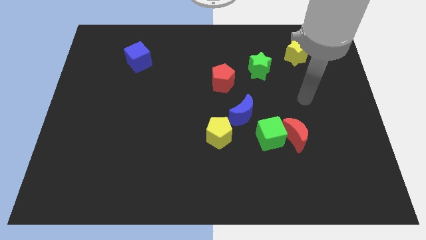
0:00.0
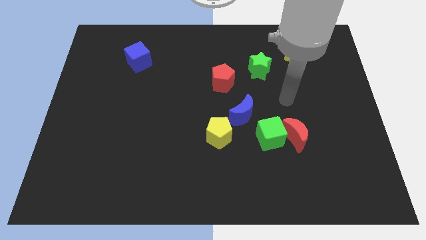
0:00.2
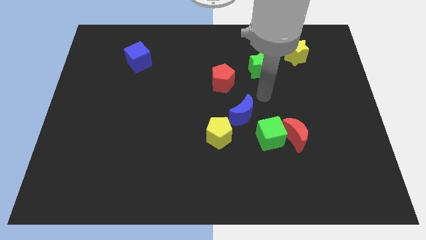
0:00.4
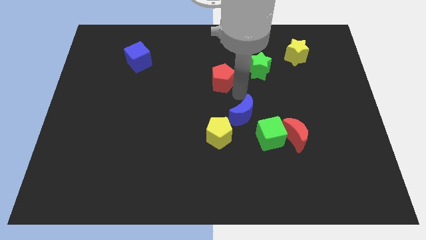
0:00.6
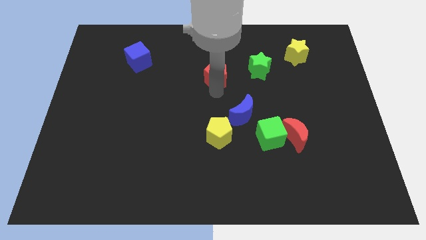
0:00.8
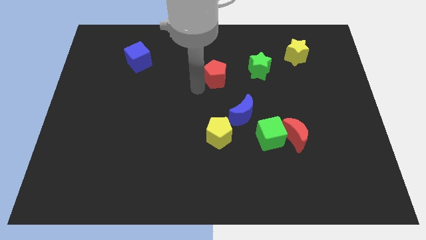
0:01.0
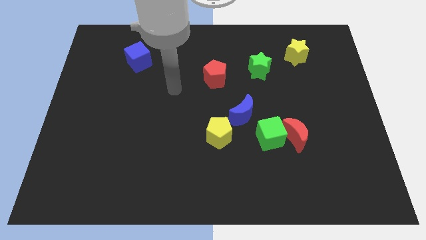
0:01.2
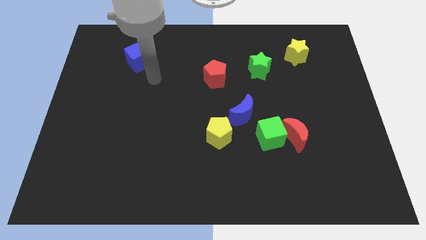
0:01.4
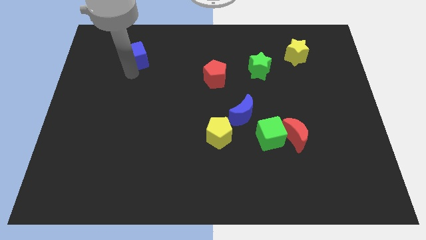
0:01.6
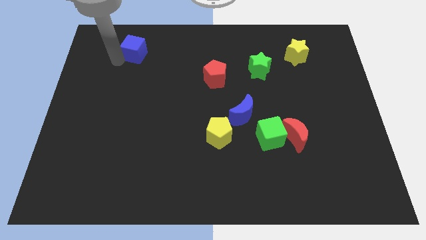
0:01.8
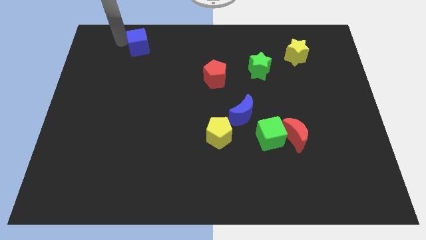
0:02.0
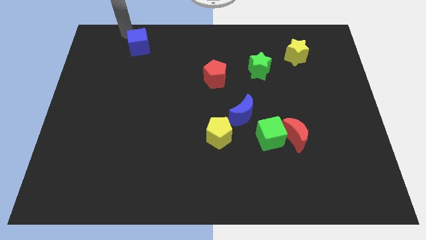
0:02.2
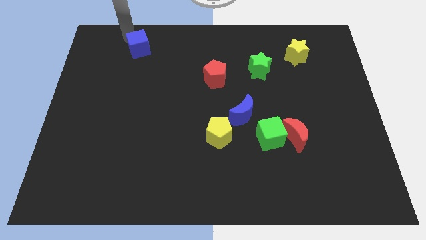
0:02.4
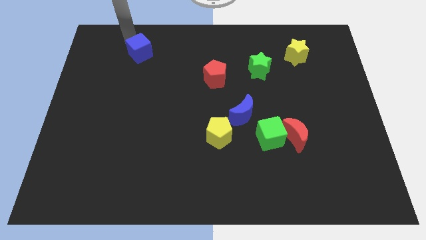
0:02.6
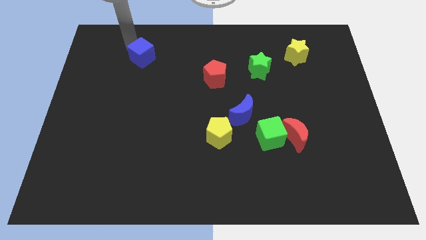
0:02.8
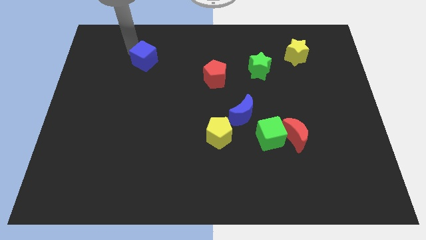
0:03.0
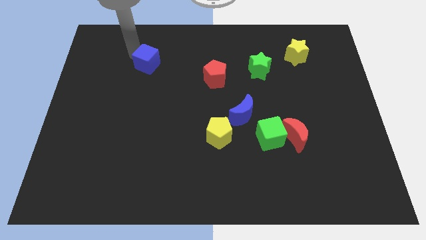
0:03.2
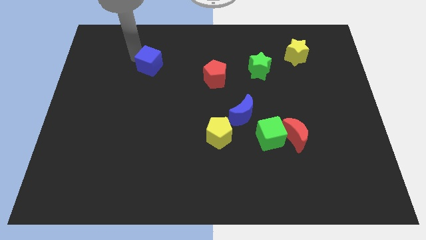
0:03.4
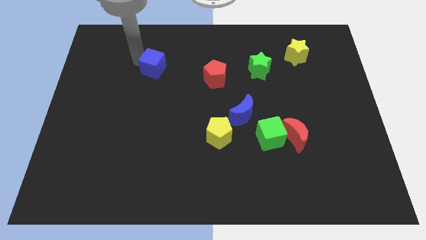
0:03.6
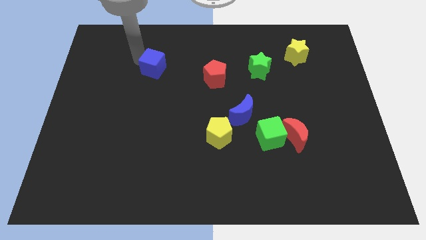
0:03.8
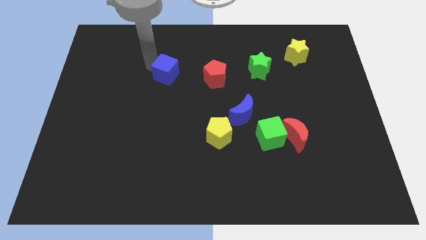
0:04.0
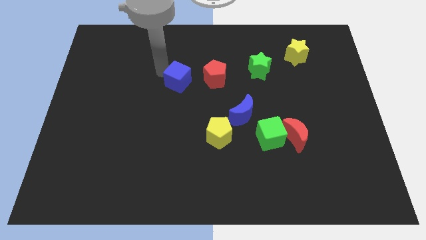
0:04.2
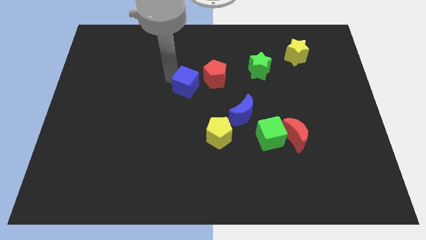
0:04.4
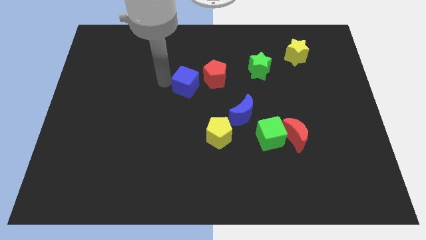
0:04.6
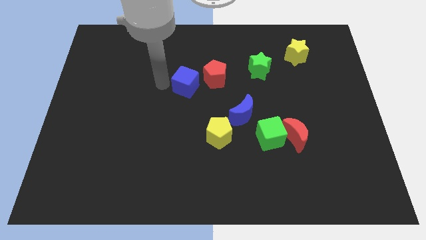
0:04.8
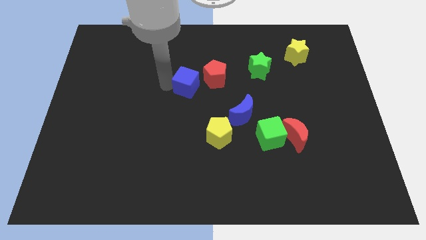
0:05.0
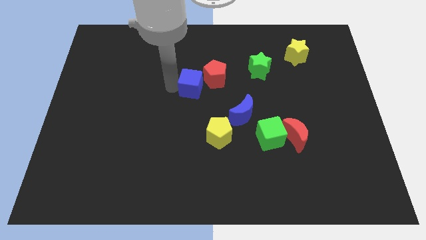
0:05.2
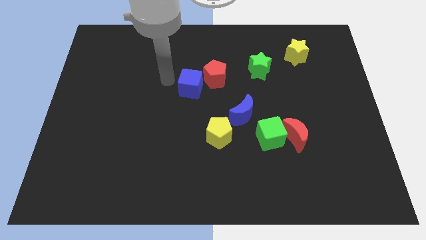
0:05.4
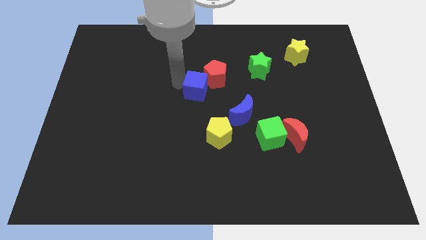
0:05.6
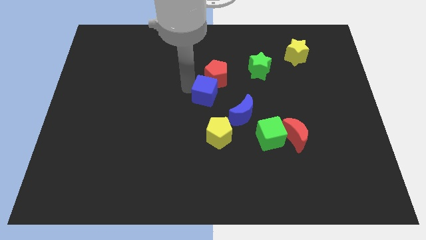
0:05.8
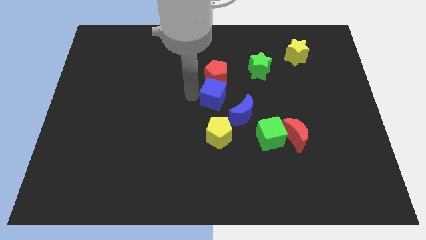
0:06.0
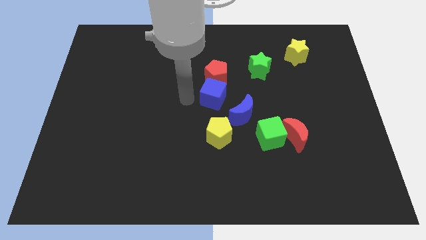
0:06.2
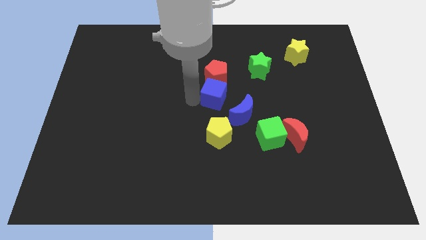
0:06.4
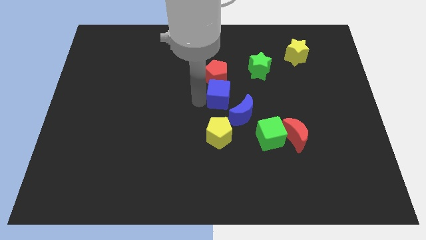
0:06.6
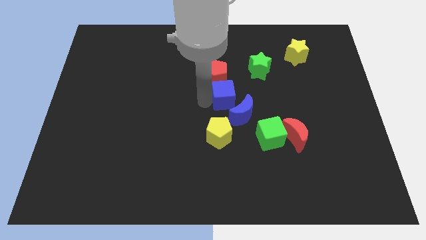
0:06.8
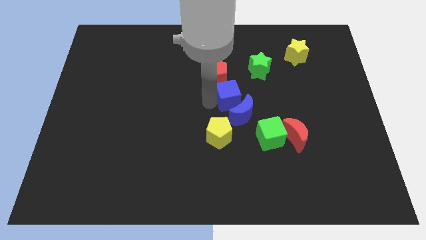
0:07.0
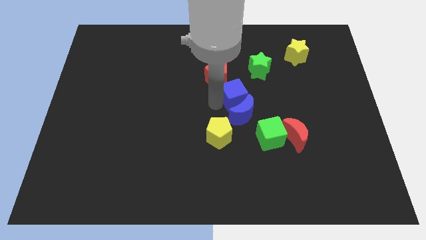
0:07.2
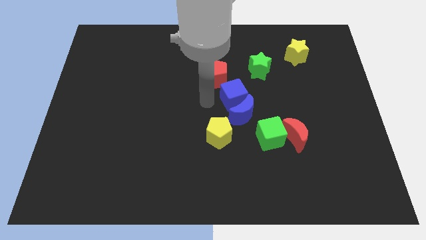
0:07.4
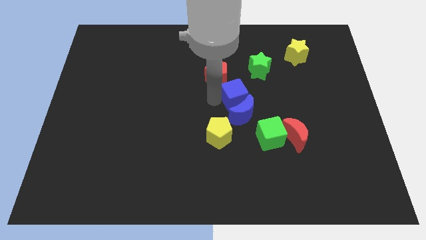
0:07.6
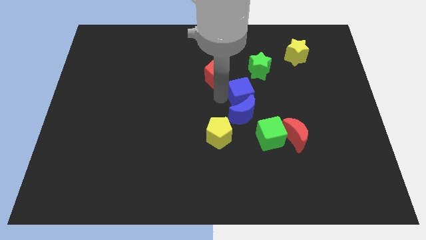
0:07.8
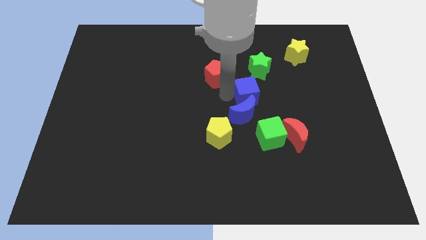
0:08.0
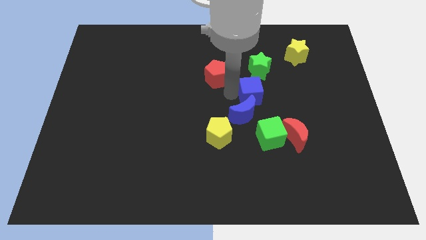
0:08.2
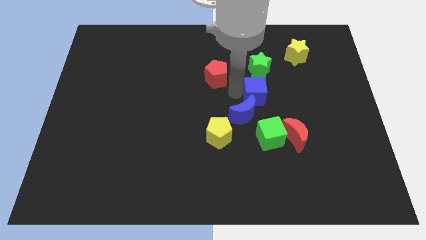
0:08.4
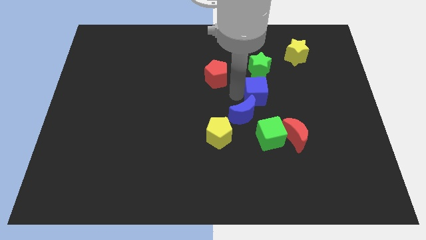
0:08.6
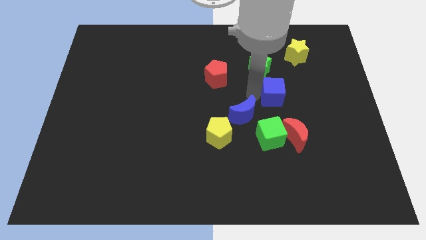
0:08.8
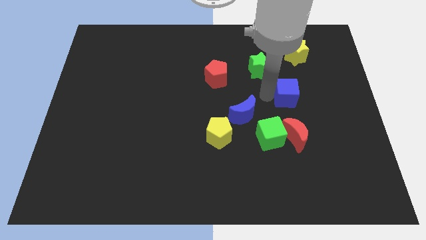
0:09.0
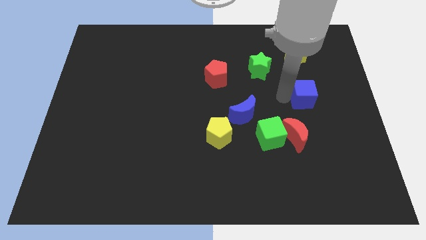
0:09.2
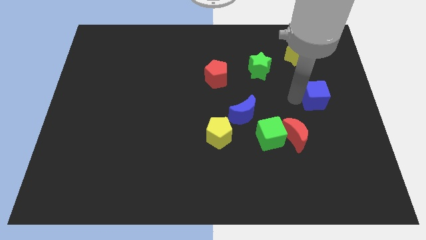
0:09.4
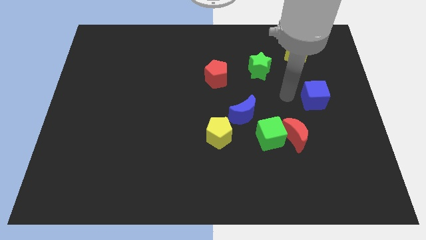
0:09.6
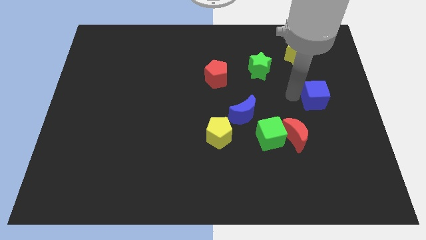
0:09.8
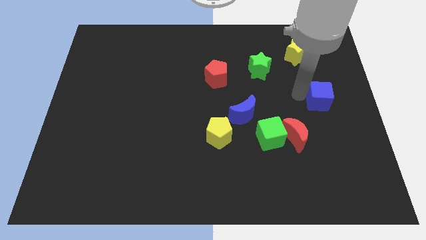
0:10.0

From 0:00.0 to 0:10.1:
move the blue cube to the right side of the board

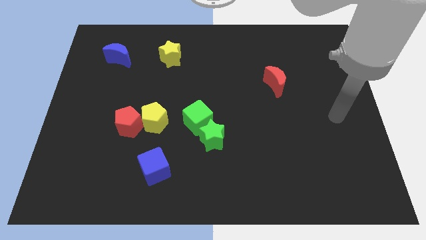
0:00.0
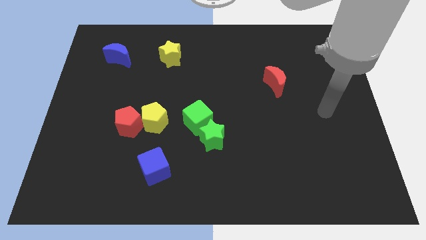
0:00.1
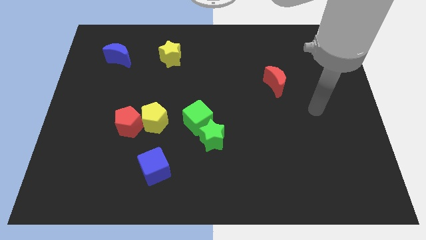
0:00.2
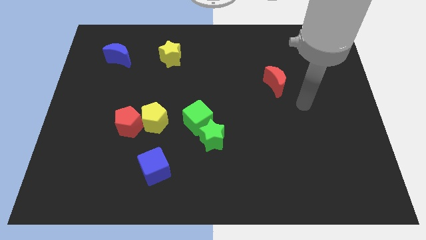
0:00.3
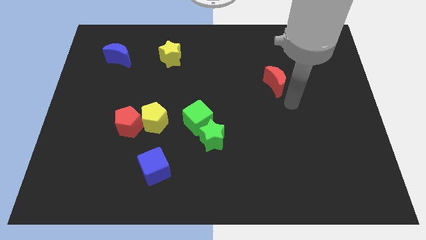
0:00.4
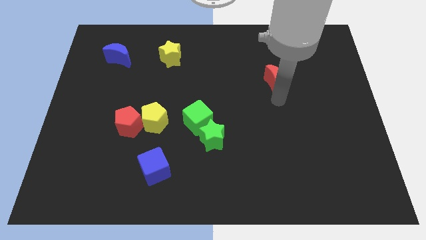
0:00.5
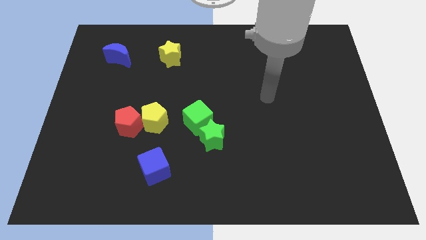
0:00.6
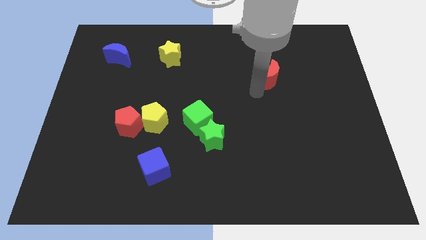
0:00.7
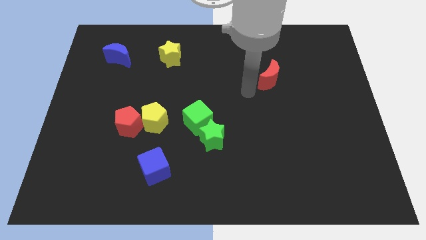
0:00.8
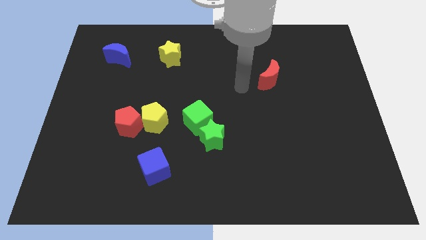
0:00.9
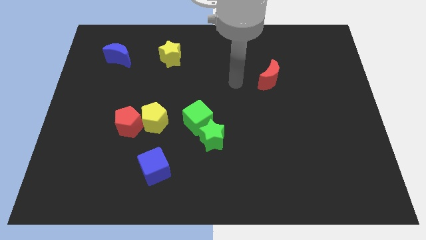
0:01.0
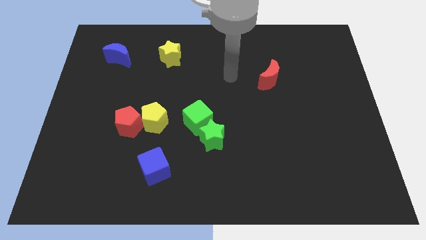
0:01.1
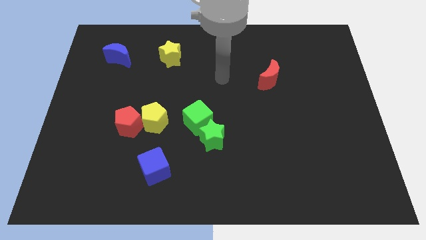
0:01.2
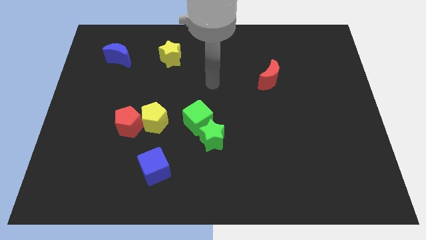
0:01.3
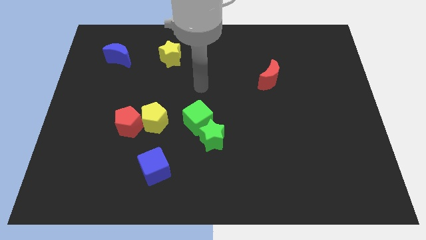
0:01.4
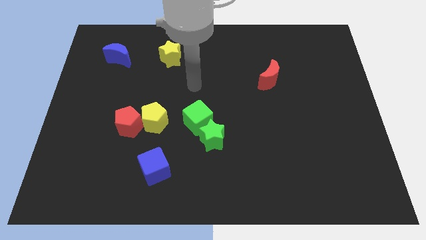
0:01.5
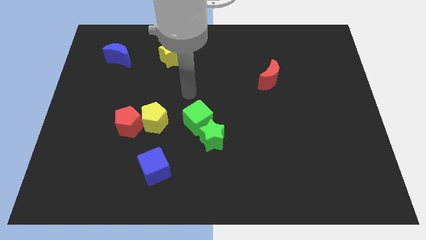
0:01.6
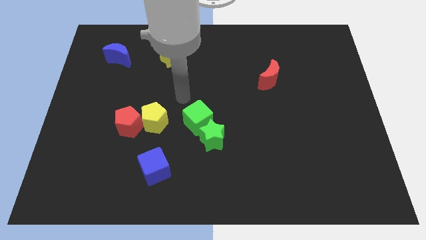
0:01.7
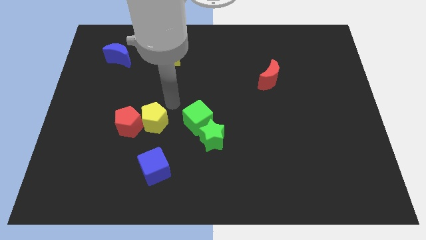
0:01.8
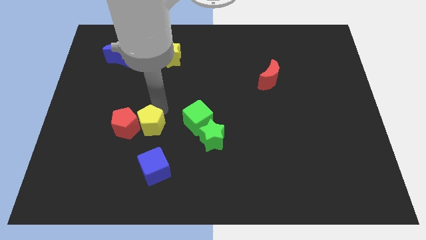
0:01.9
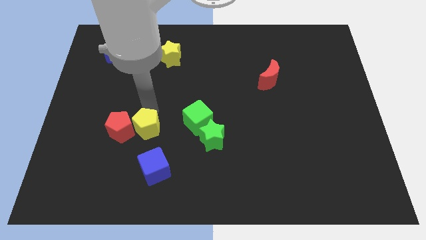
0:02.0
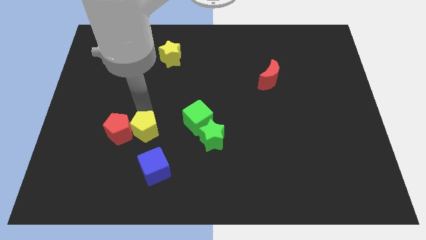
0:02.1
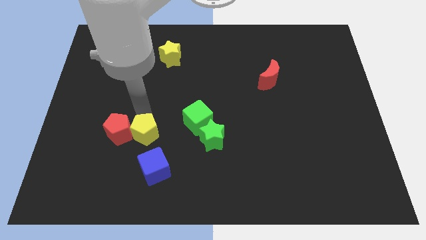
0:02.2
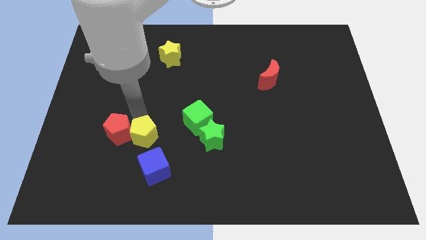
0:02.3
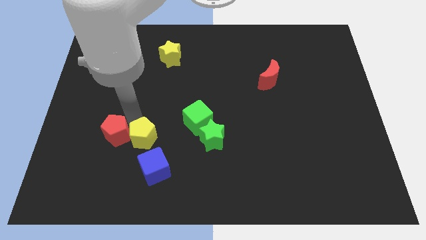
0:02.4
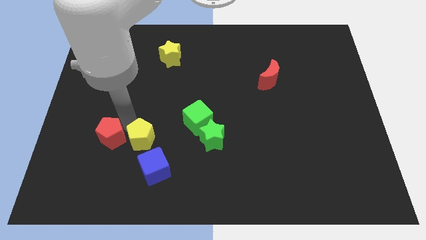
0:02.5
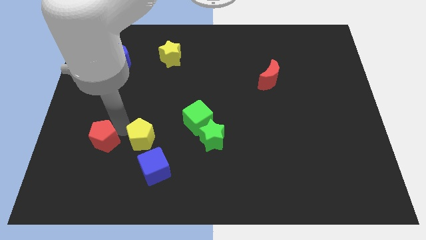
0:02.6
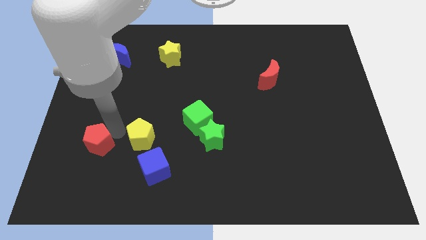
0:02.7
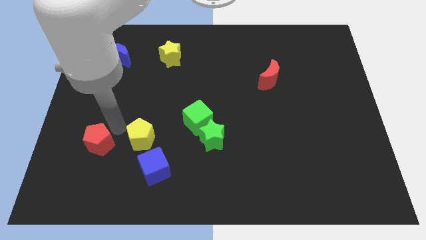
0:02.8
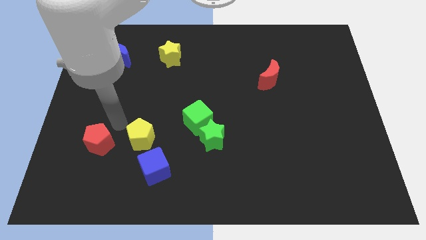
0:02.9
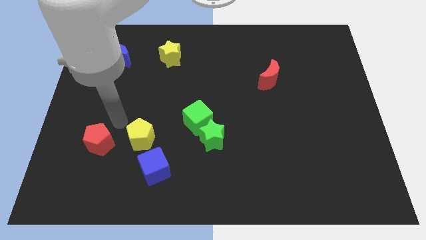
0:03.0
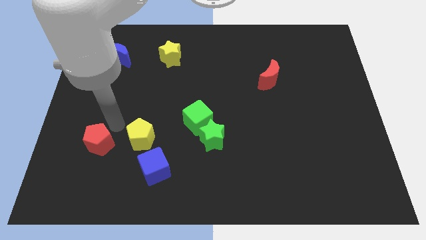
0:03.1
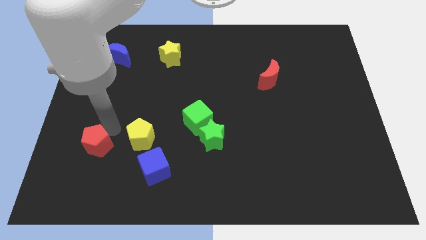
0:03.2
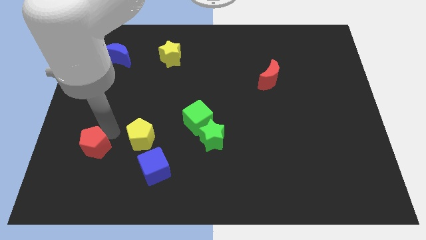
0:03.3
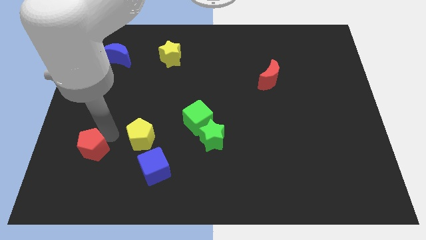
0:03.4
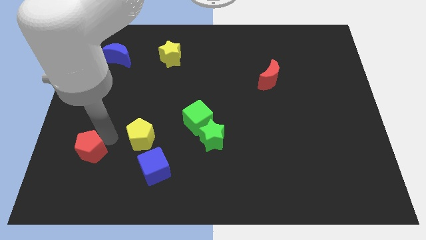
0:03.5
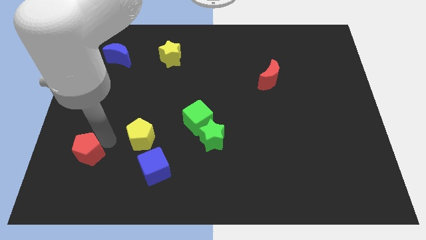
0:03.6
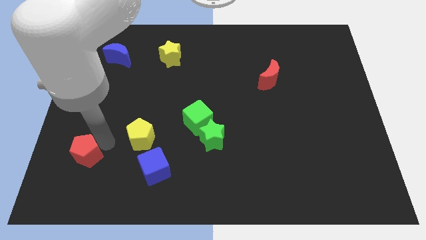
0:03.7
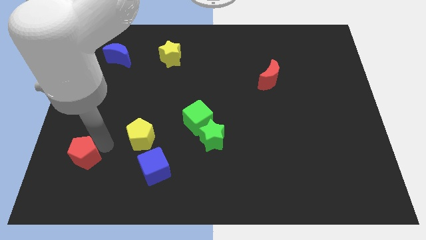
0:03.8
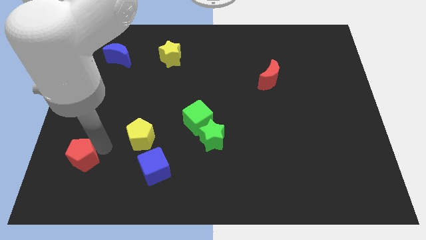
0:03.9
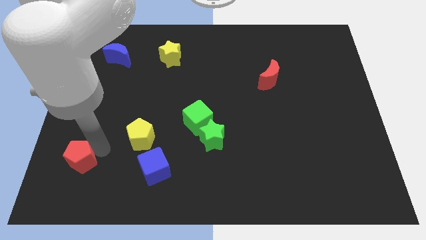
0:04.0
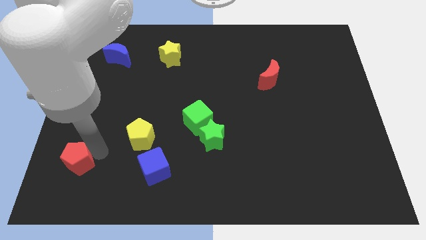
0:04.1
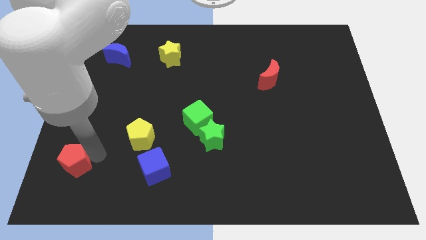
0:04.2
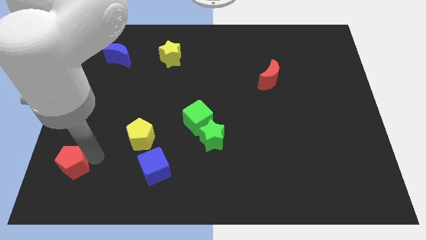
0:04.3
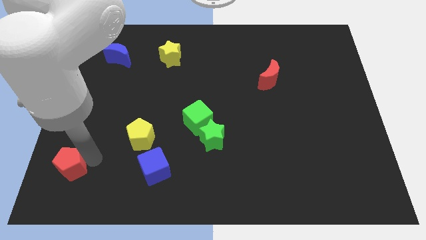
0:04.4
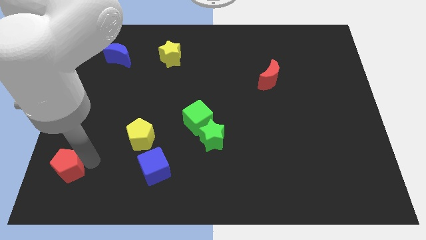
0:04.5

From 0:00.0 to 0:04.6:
slide the red pentagon to the bottom left of the board
